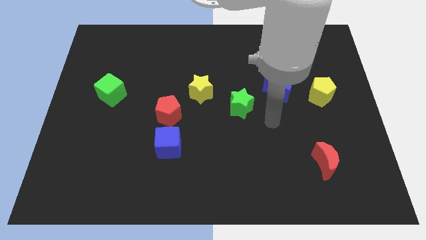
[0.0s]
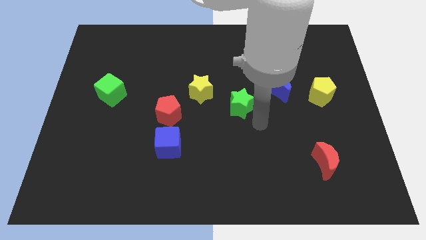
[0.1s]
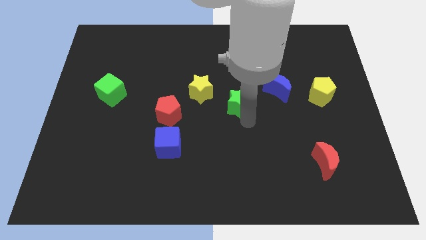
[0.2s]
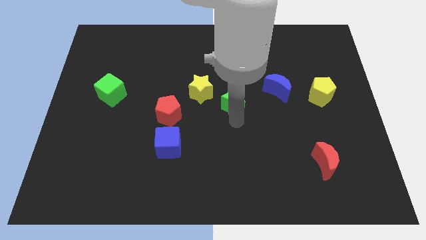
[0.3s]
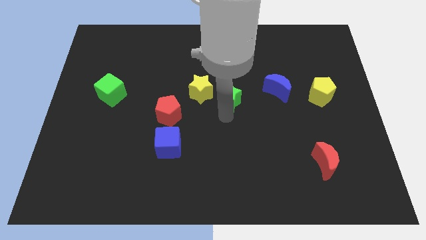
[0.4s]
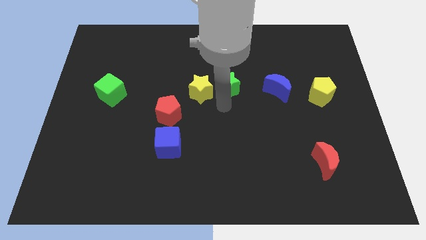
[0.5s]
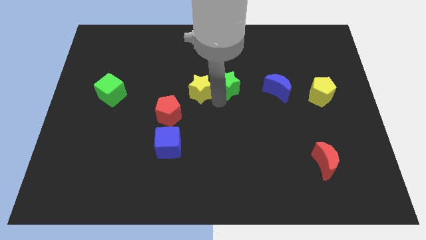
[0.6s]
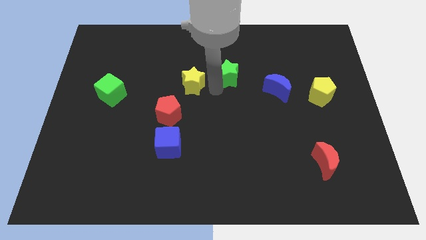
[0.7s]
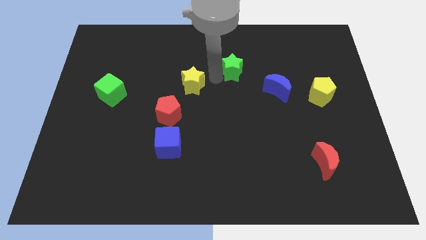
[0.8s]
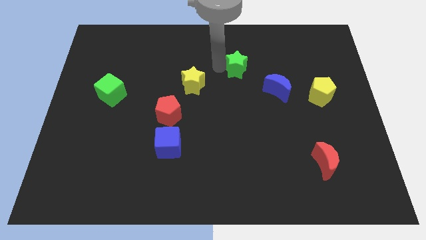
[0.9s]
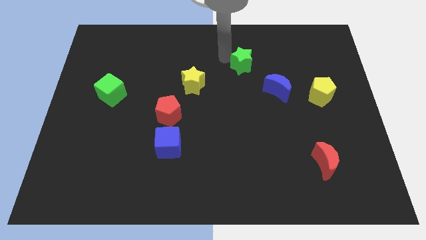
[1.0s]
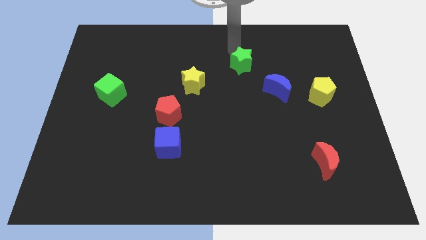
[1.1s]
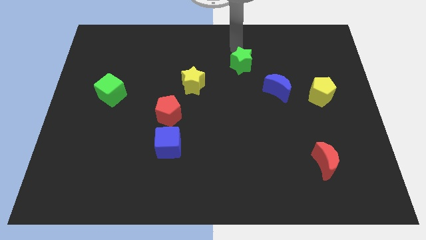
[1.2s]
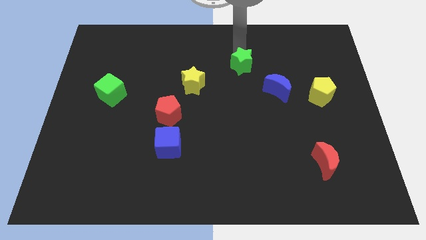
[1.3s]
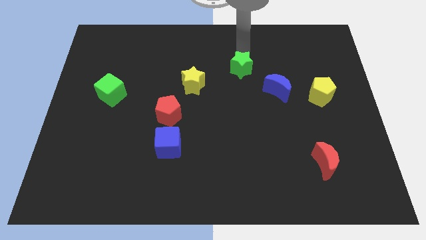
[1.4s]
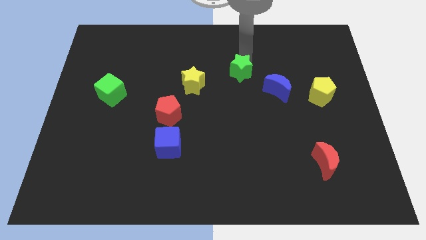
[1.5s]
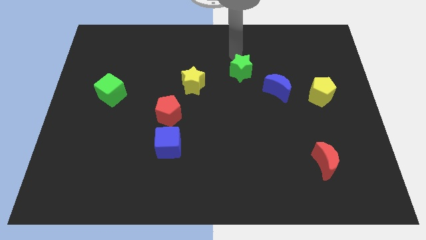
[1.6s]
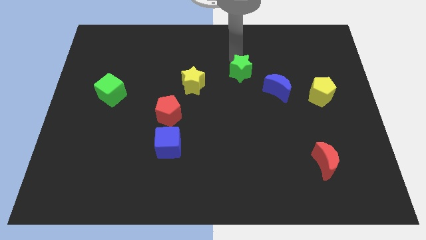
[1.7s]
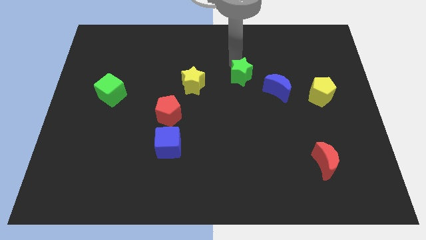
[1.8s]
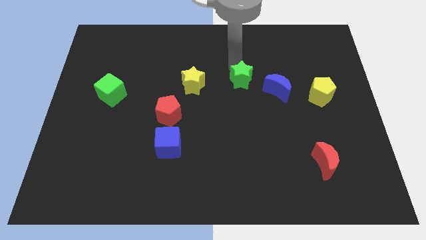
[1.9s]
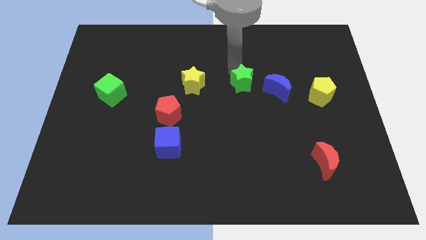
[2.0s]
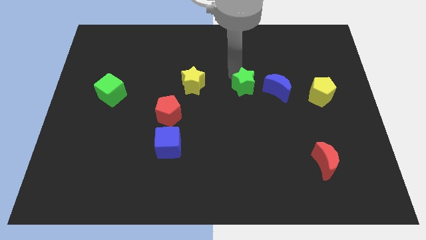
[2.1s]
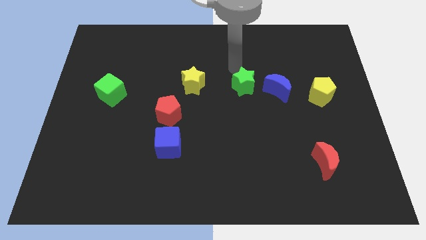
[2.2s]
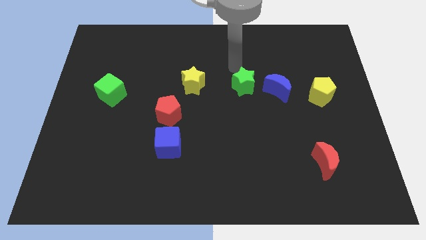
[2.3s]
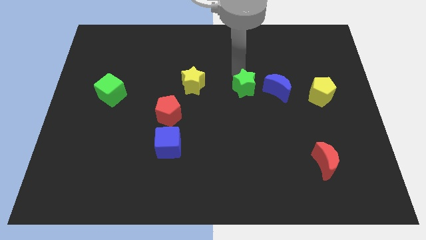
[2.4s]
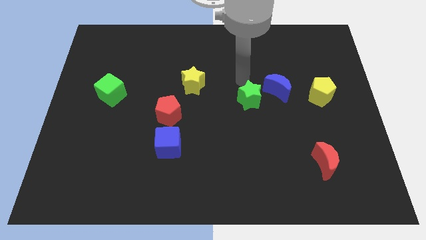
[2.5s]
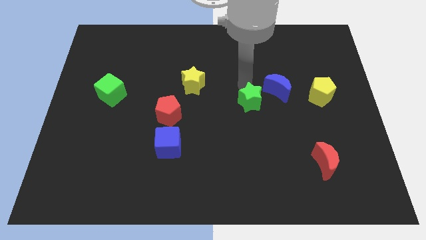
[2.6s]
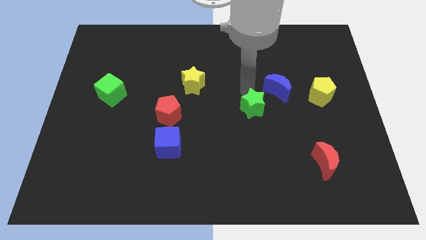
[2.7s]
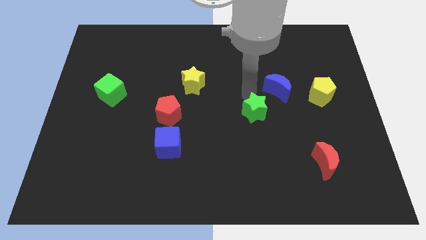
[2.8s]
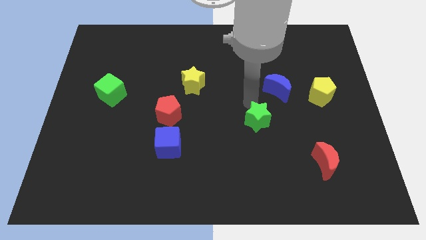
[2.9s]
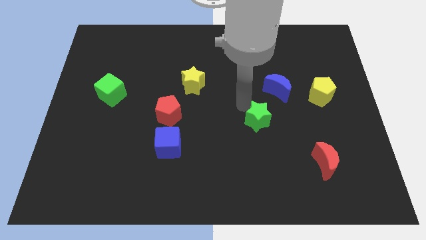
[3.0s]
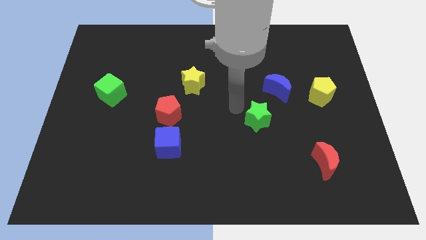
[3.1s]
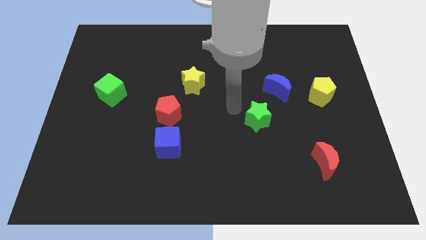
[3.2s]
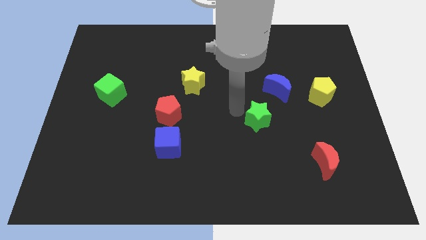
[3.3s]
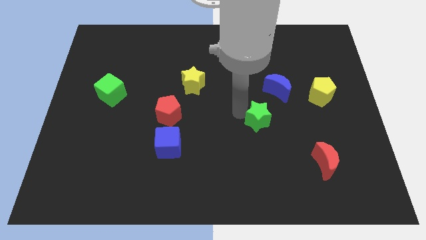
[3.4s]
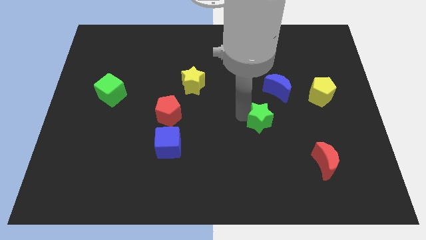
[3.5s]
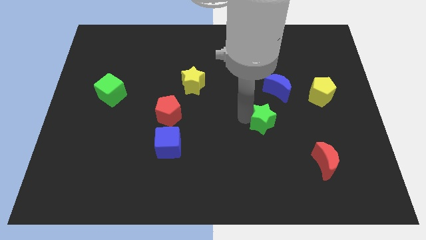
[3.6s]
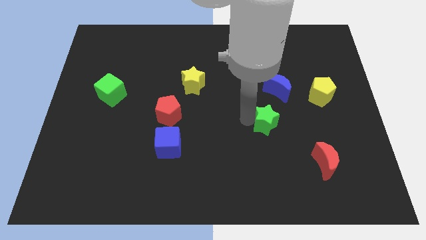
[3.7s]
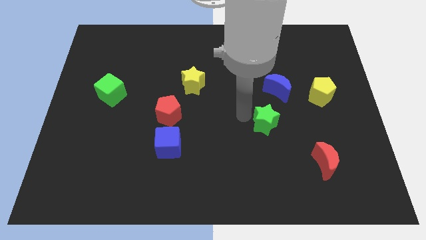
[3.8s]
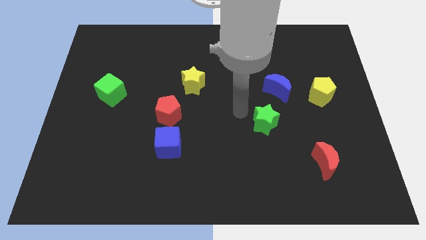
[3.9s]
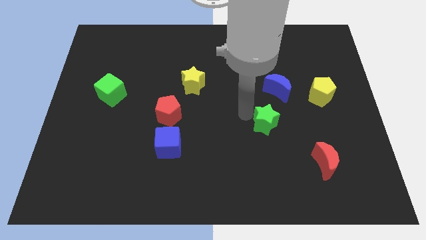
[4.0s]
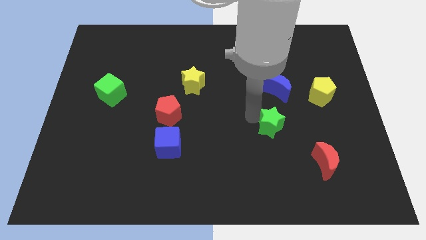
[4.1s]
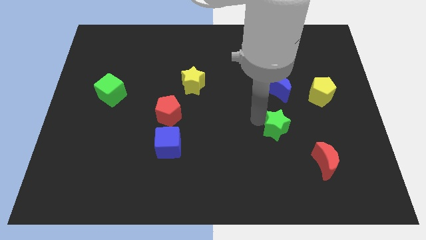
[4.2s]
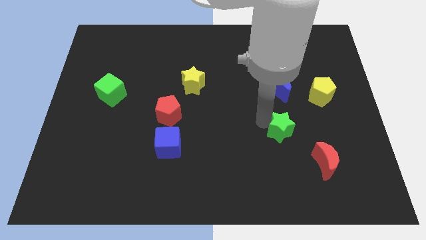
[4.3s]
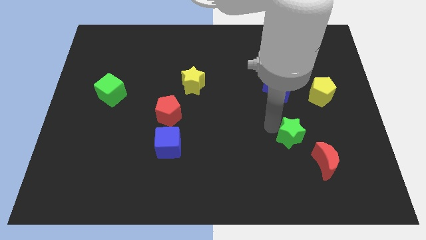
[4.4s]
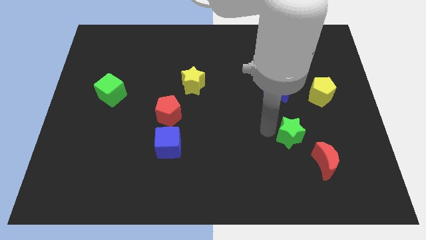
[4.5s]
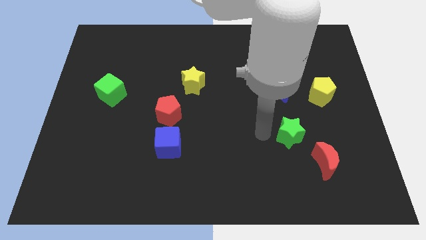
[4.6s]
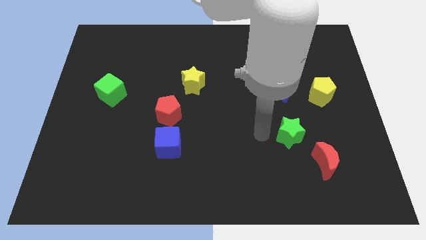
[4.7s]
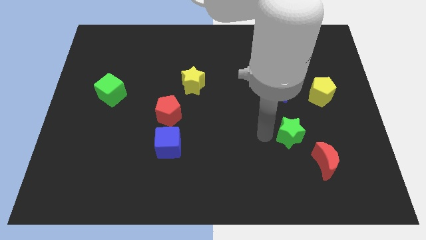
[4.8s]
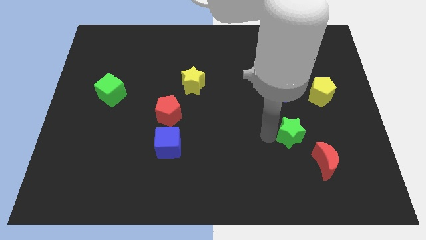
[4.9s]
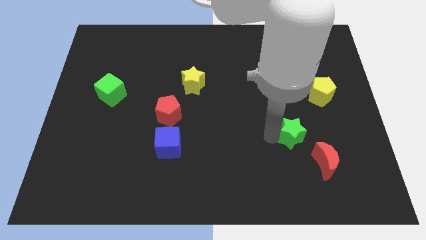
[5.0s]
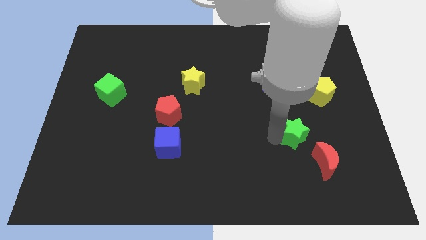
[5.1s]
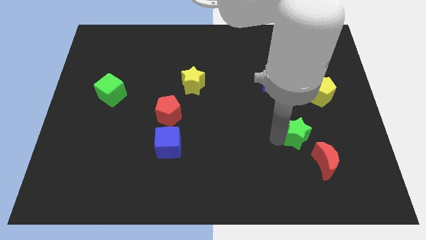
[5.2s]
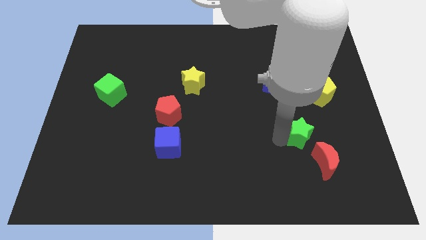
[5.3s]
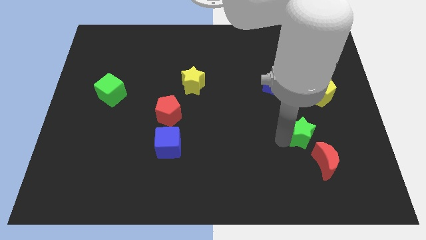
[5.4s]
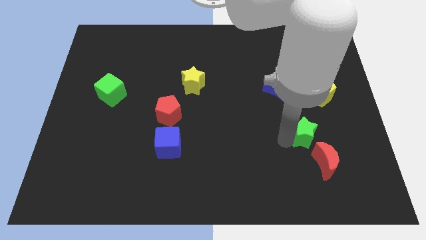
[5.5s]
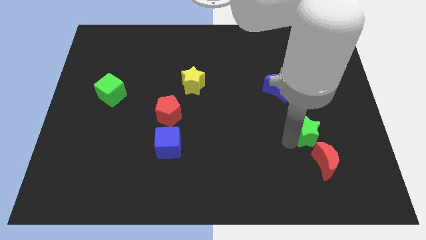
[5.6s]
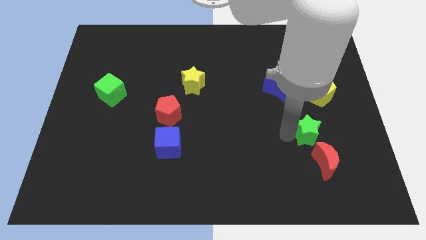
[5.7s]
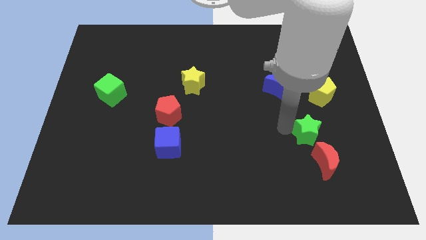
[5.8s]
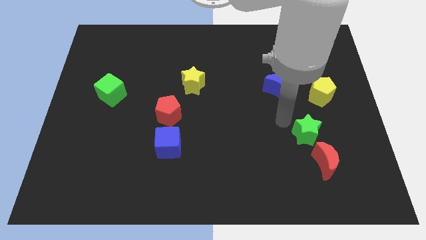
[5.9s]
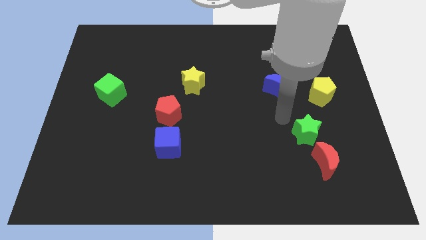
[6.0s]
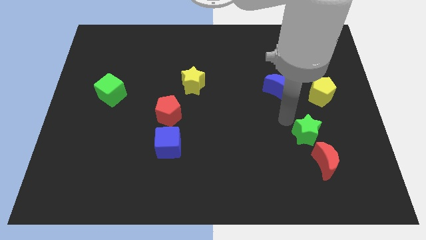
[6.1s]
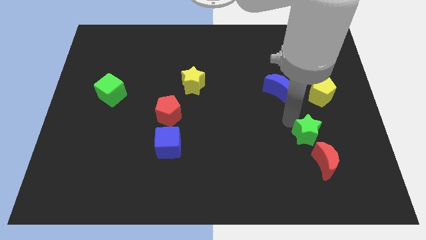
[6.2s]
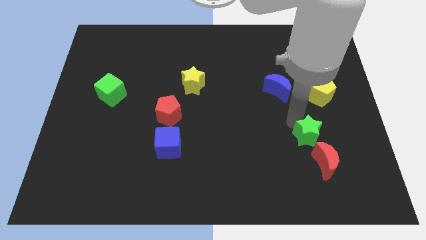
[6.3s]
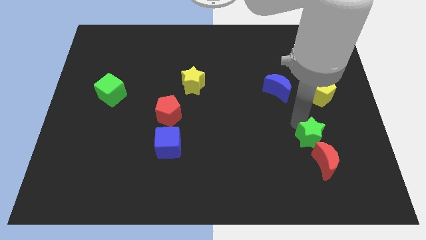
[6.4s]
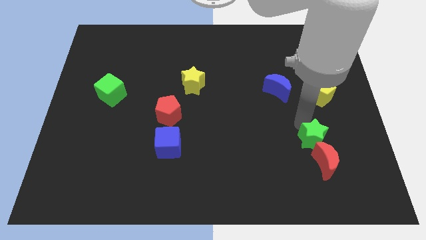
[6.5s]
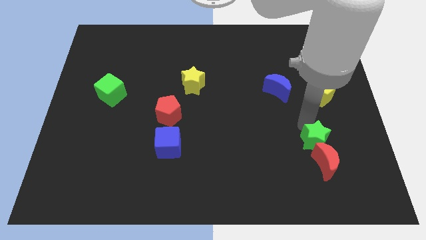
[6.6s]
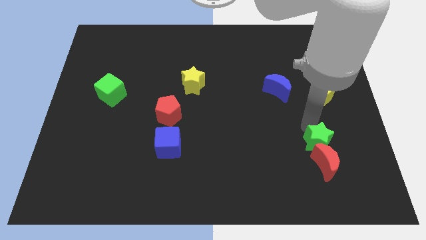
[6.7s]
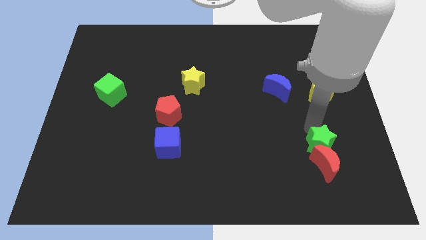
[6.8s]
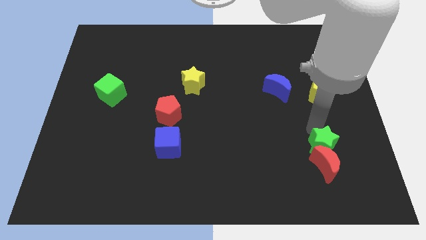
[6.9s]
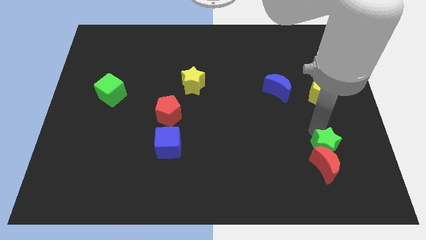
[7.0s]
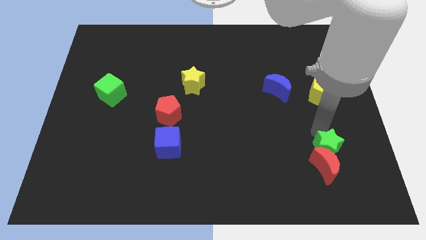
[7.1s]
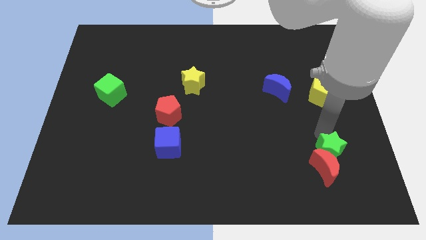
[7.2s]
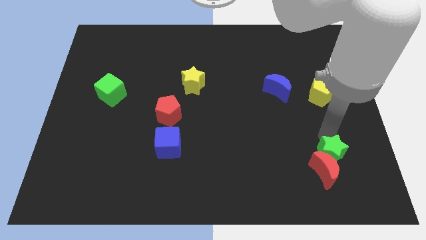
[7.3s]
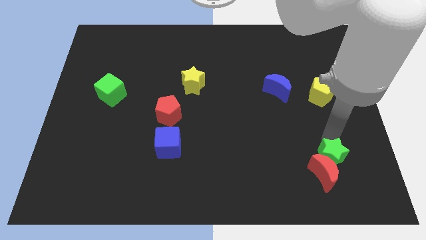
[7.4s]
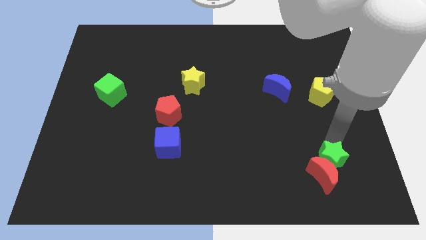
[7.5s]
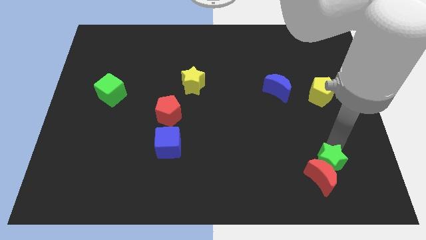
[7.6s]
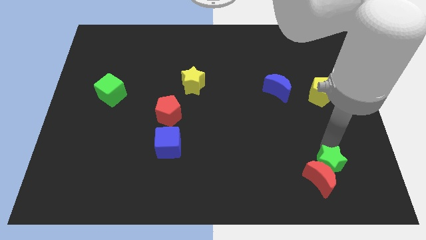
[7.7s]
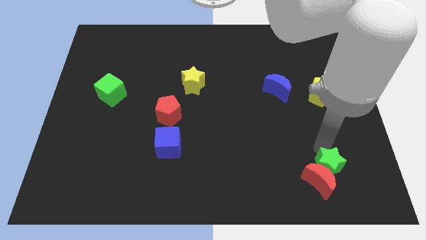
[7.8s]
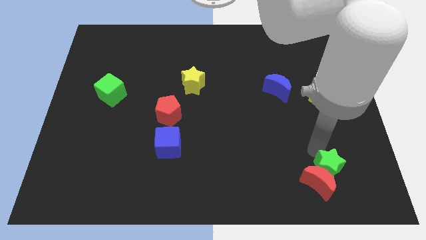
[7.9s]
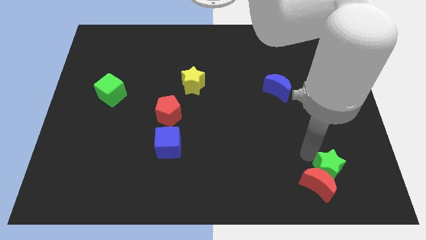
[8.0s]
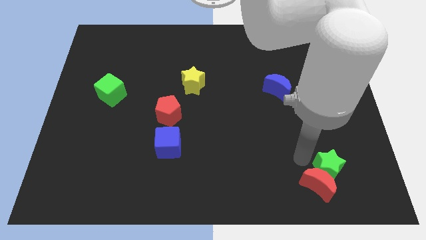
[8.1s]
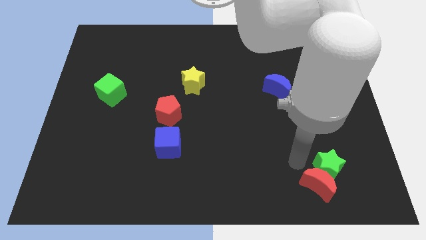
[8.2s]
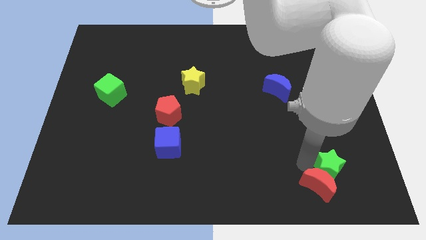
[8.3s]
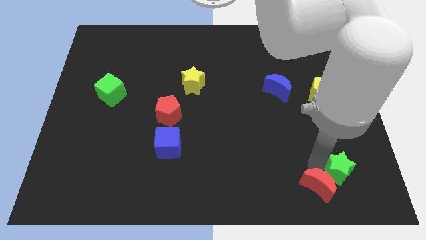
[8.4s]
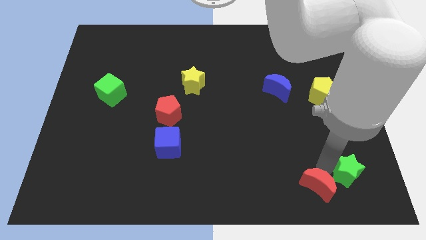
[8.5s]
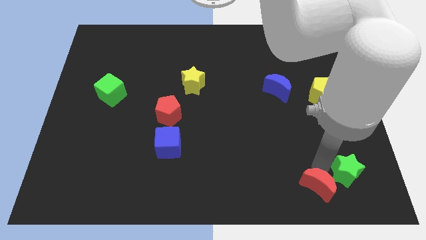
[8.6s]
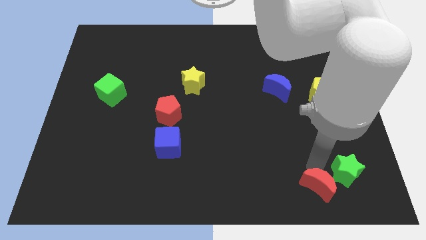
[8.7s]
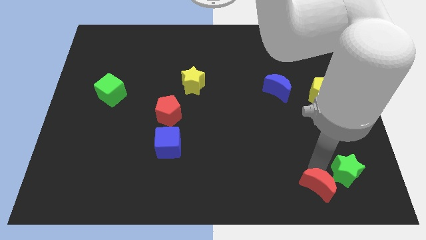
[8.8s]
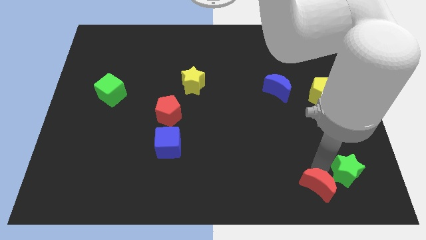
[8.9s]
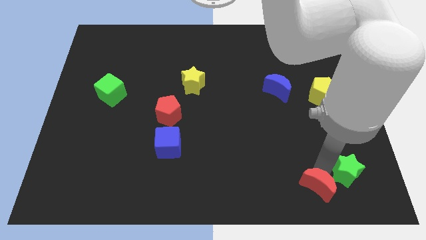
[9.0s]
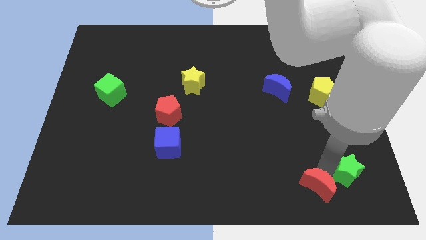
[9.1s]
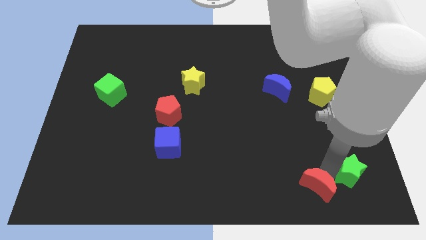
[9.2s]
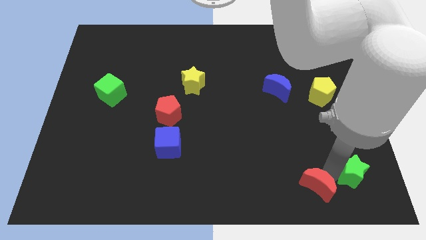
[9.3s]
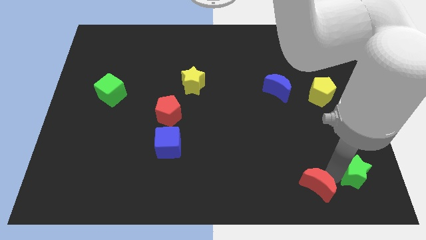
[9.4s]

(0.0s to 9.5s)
put the green star to the bottom right
